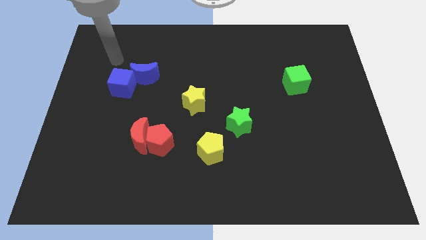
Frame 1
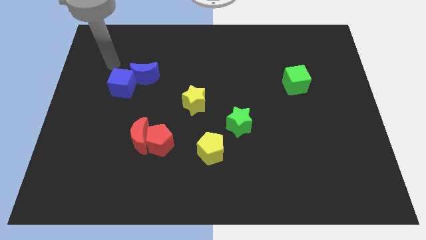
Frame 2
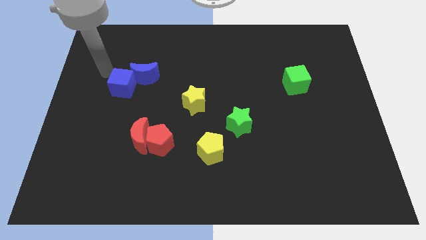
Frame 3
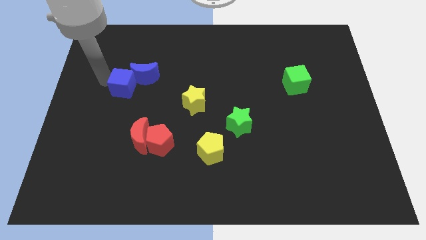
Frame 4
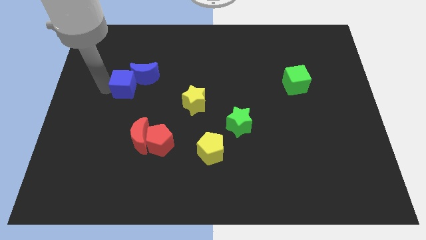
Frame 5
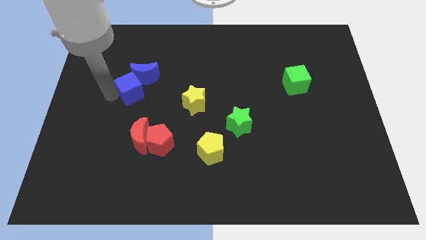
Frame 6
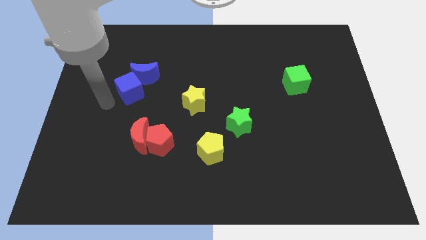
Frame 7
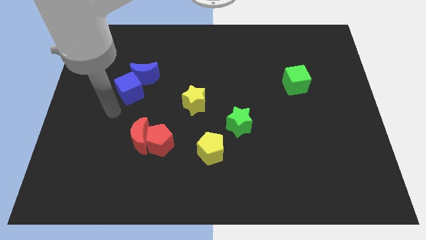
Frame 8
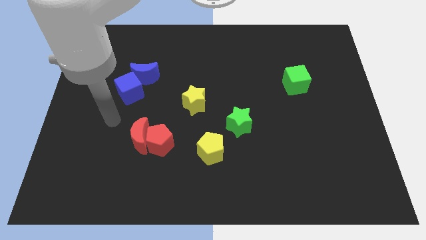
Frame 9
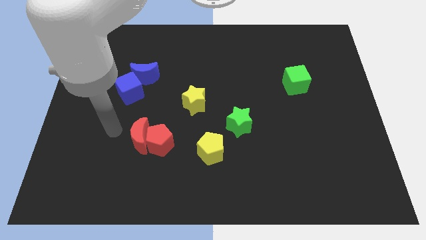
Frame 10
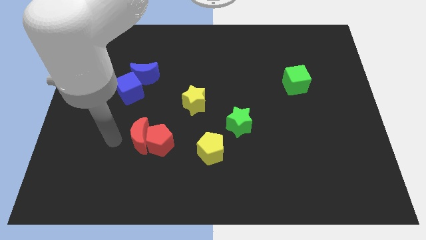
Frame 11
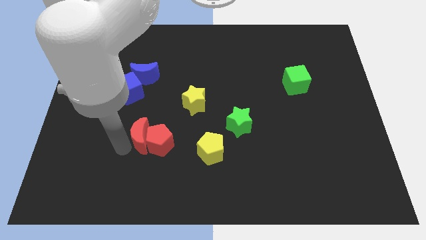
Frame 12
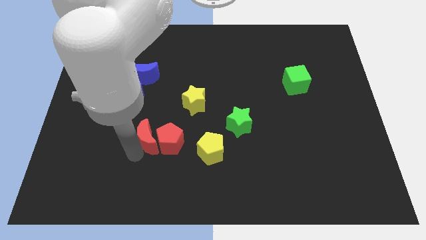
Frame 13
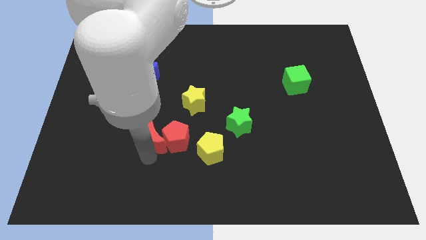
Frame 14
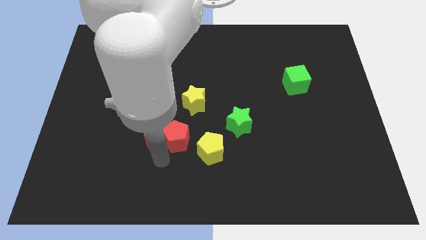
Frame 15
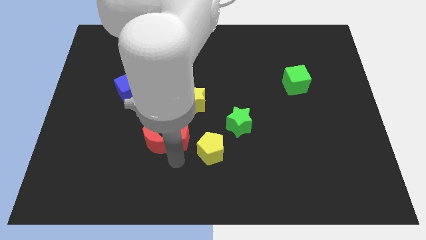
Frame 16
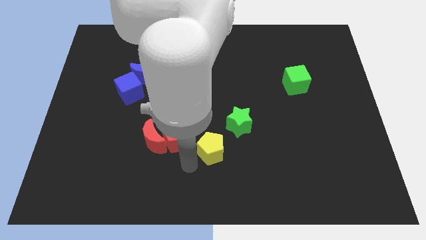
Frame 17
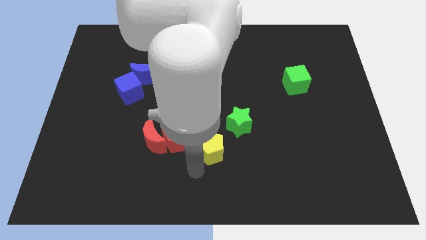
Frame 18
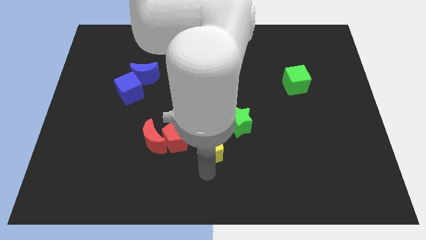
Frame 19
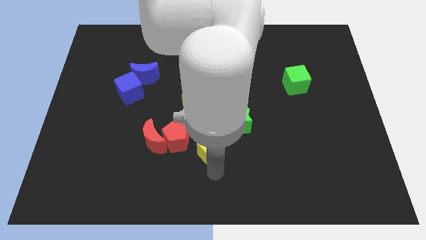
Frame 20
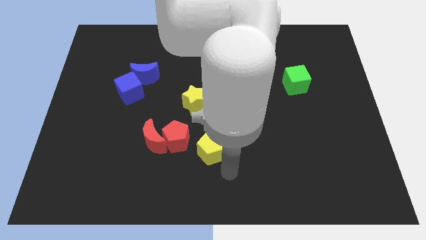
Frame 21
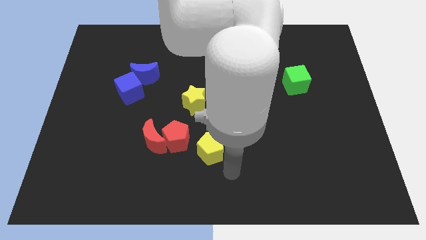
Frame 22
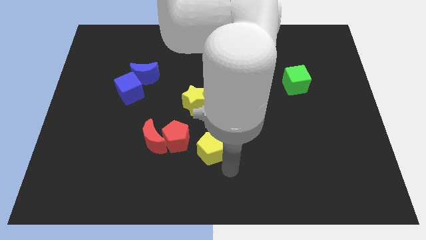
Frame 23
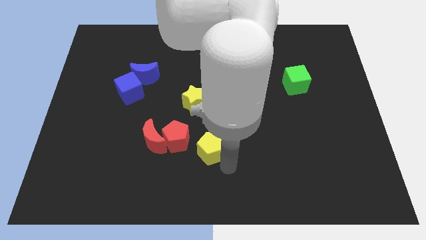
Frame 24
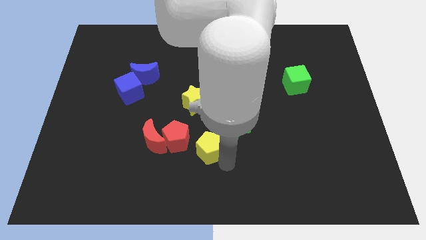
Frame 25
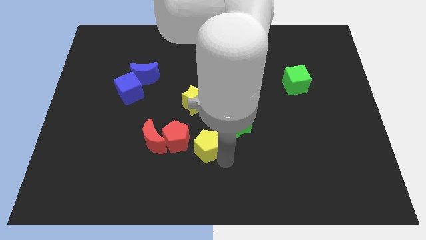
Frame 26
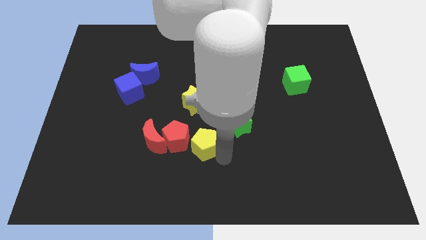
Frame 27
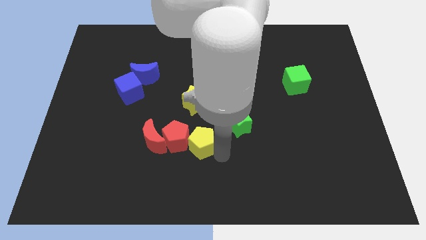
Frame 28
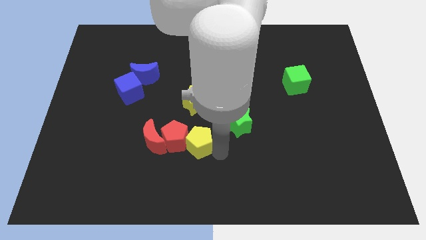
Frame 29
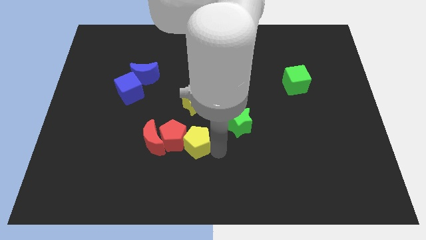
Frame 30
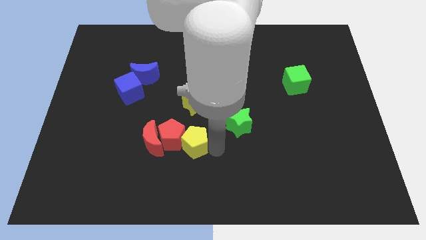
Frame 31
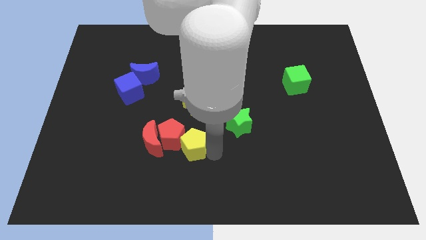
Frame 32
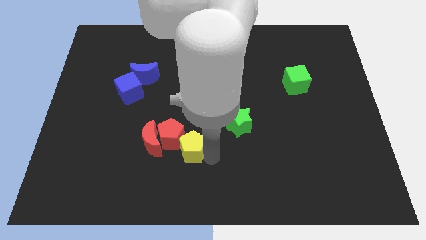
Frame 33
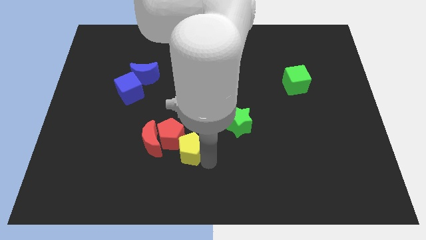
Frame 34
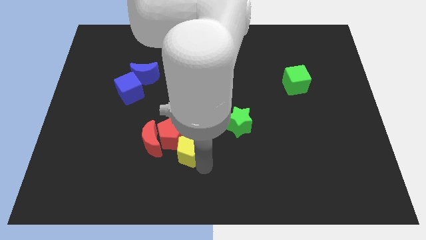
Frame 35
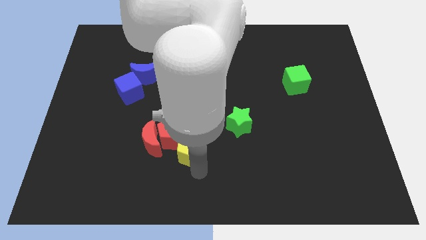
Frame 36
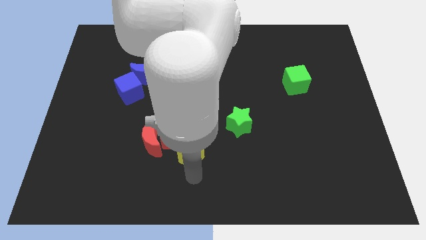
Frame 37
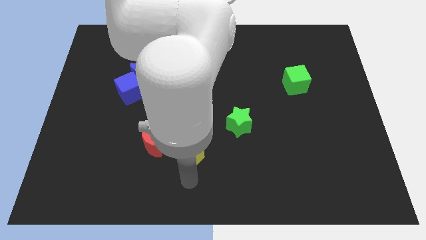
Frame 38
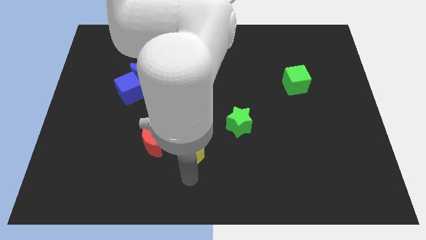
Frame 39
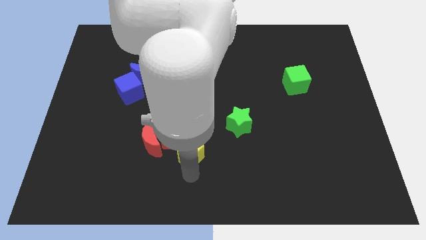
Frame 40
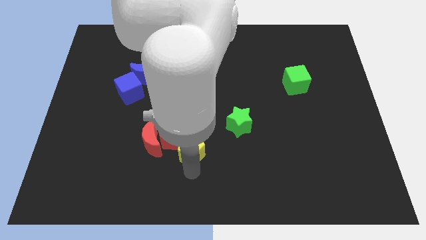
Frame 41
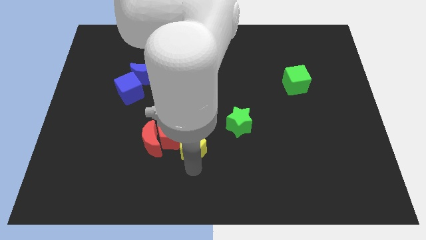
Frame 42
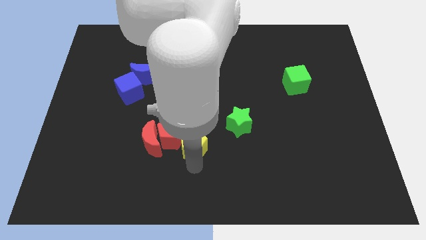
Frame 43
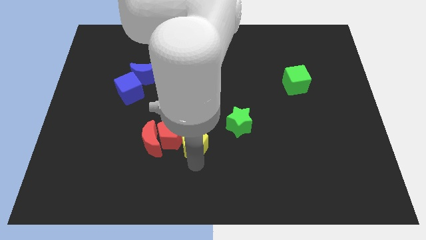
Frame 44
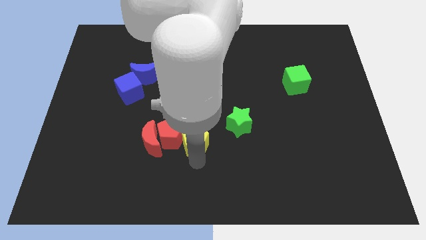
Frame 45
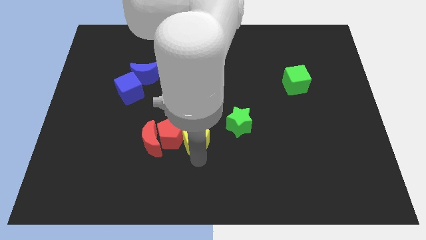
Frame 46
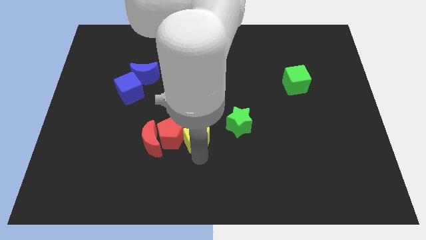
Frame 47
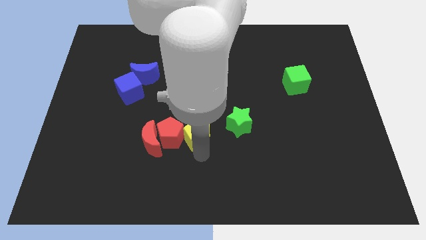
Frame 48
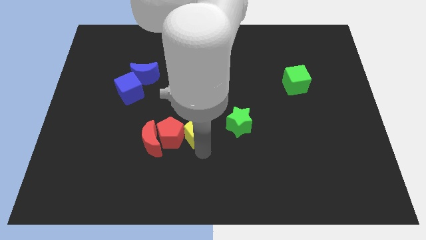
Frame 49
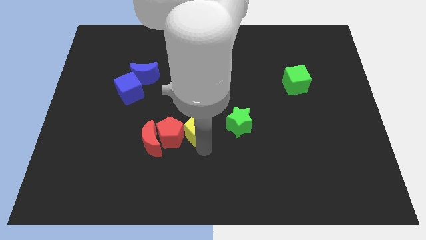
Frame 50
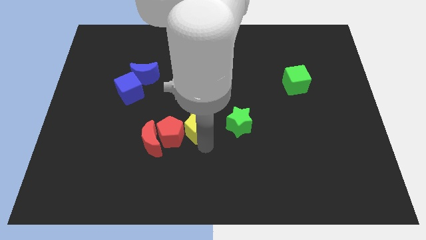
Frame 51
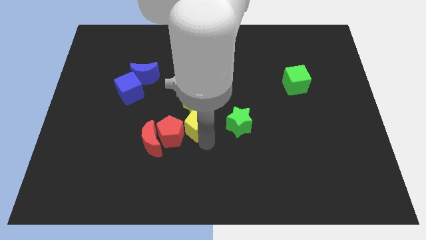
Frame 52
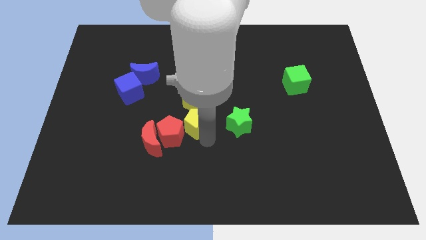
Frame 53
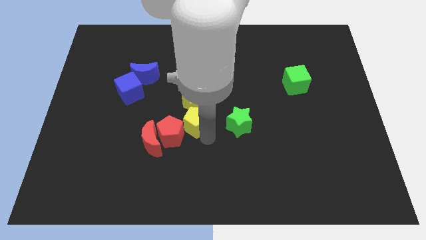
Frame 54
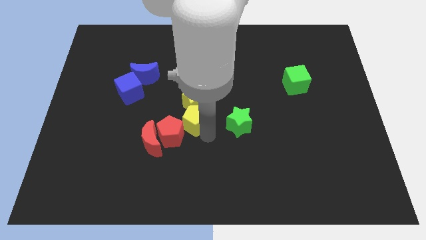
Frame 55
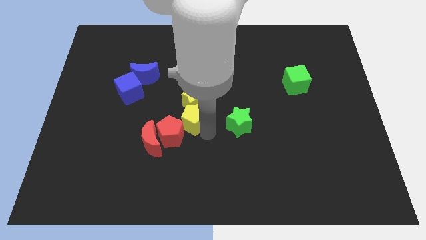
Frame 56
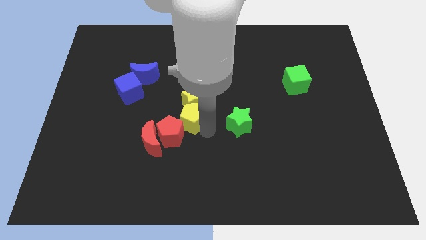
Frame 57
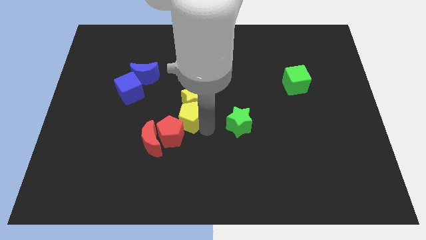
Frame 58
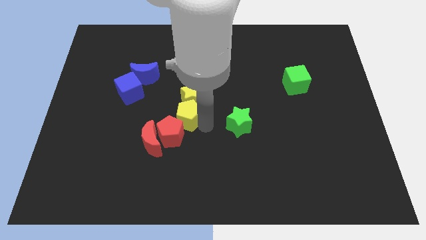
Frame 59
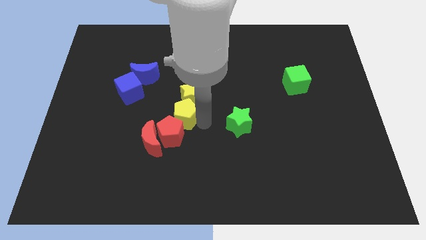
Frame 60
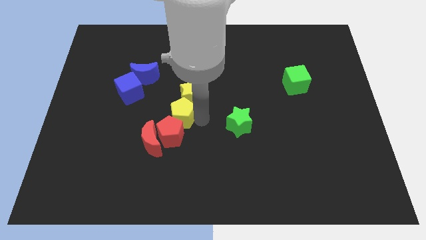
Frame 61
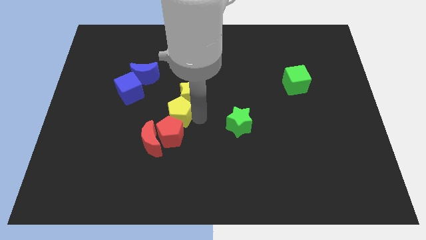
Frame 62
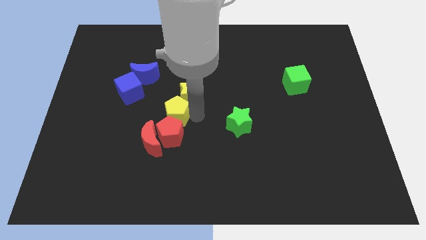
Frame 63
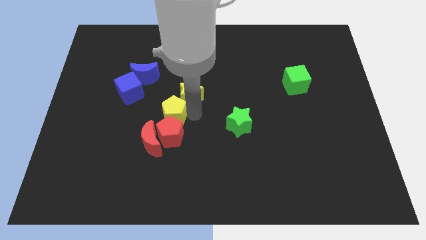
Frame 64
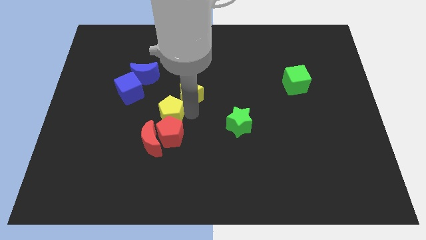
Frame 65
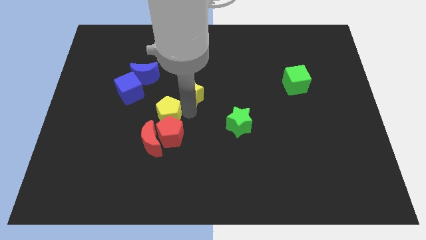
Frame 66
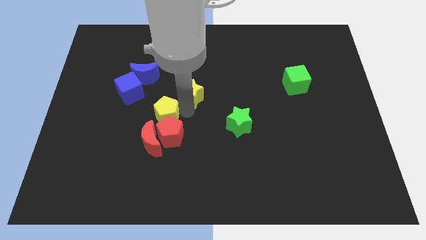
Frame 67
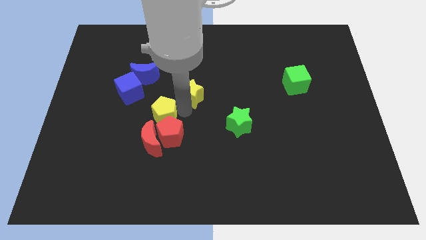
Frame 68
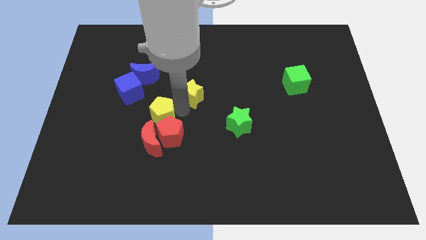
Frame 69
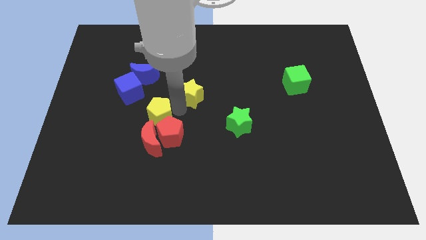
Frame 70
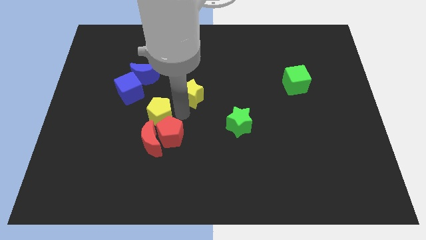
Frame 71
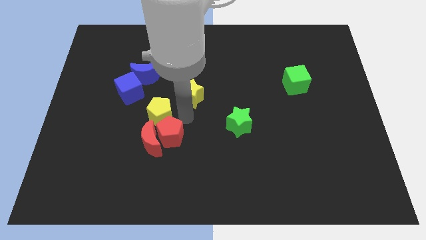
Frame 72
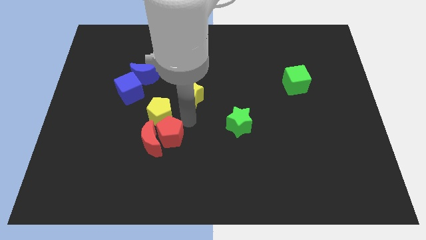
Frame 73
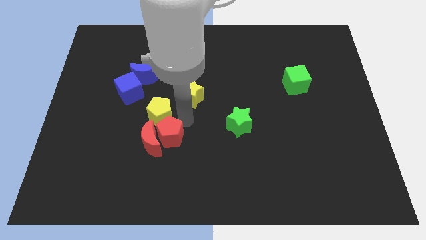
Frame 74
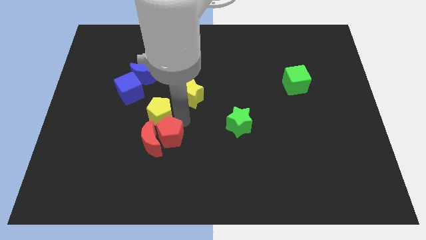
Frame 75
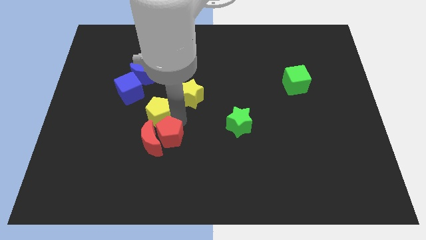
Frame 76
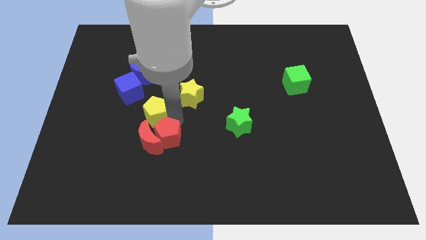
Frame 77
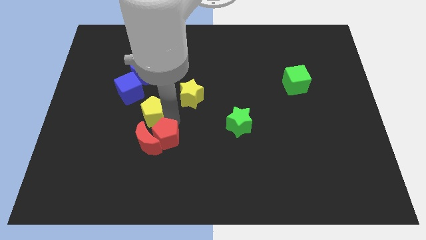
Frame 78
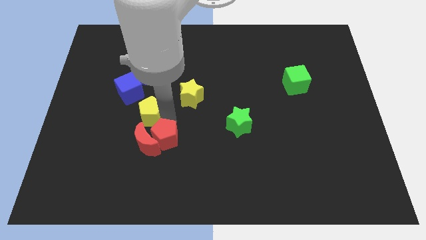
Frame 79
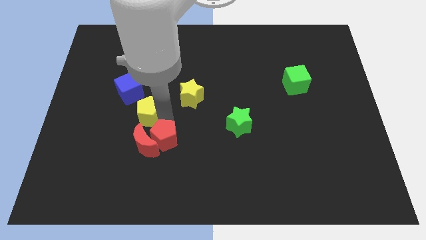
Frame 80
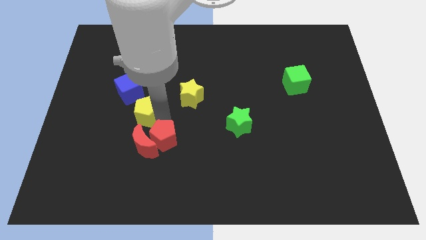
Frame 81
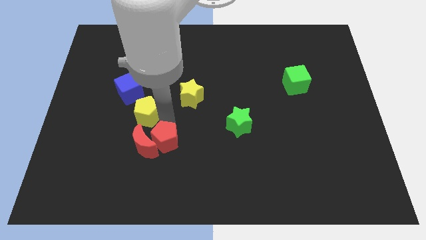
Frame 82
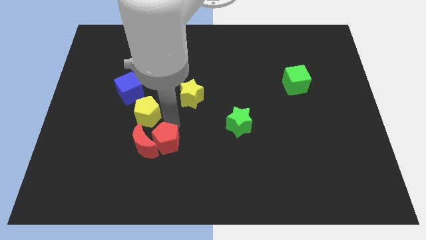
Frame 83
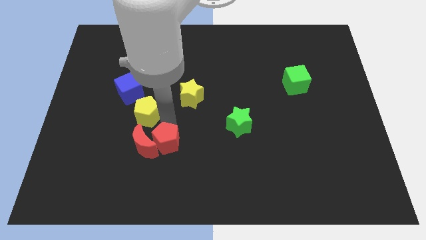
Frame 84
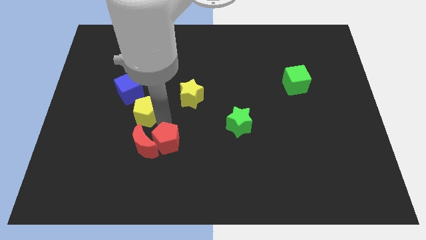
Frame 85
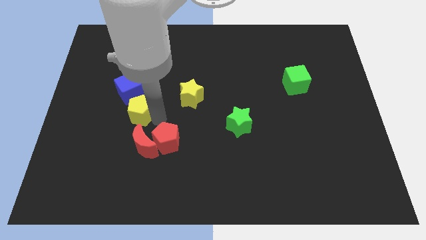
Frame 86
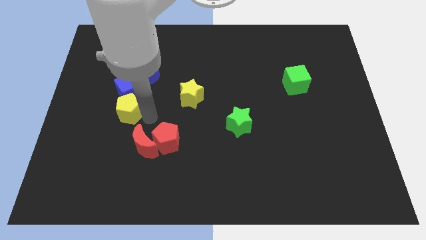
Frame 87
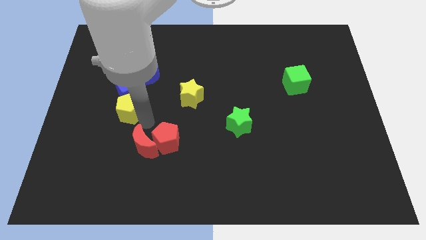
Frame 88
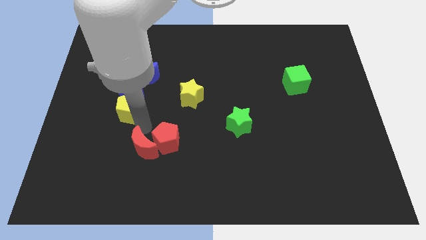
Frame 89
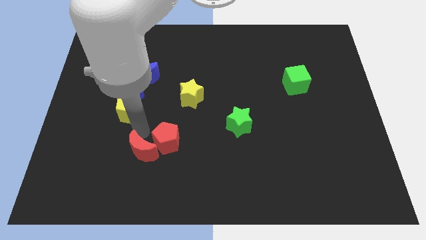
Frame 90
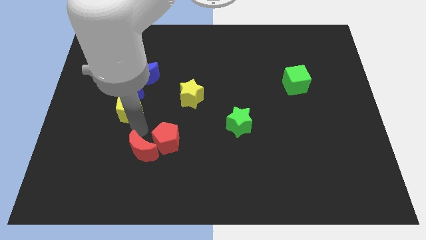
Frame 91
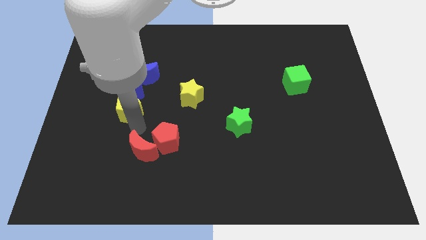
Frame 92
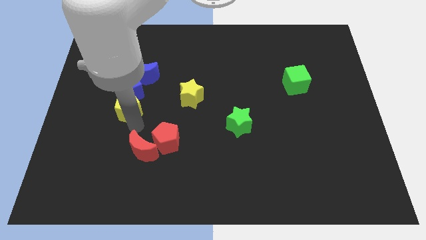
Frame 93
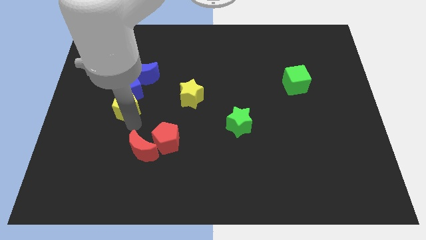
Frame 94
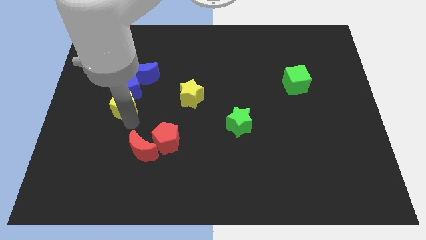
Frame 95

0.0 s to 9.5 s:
push the yellow pentagon to the bottom left of the blue moon
